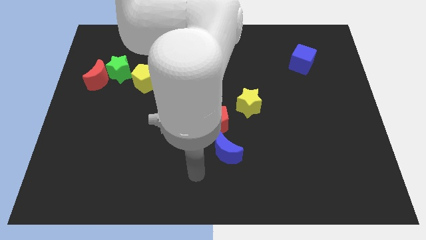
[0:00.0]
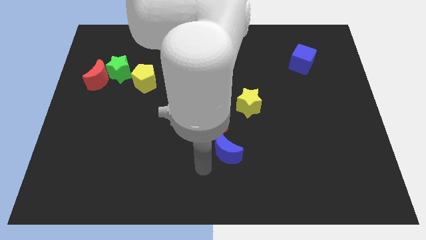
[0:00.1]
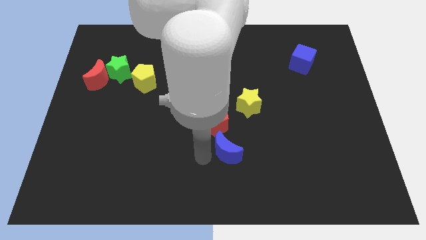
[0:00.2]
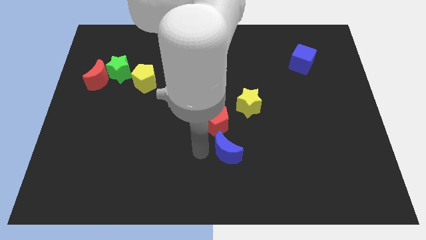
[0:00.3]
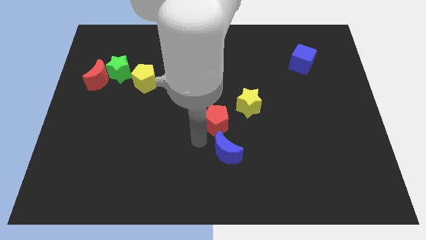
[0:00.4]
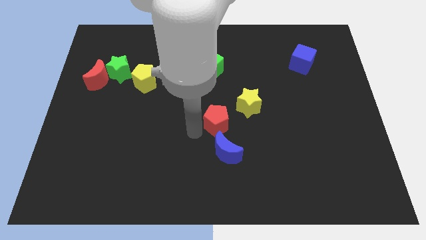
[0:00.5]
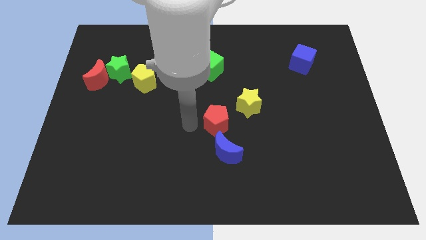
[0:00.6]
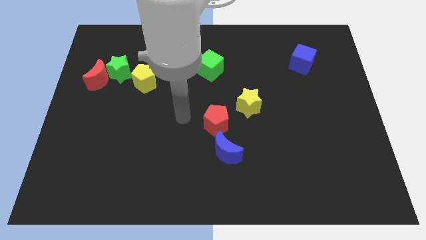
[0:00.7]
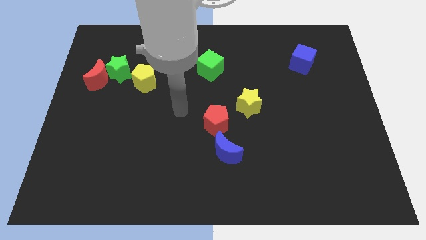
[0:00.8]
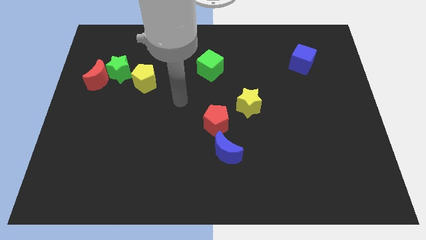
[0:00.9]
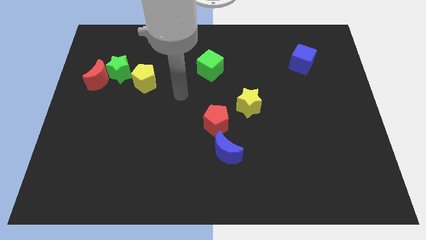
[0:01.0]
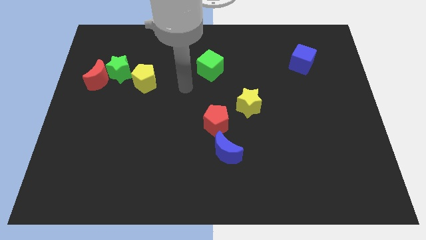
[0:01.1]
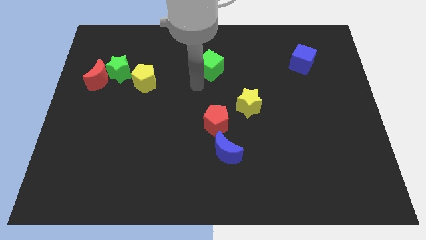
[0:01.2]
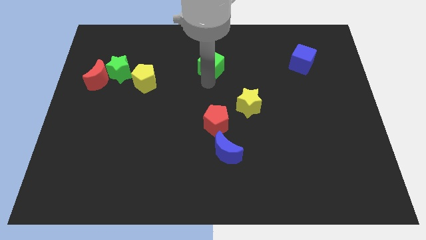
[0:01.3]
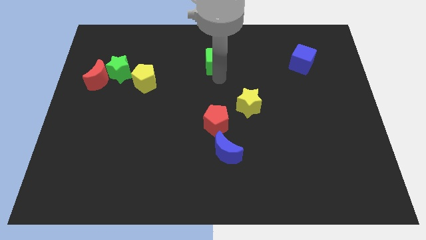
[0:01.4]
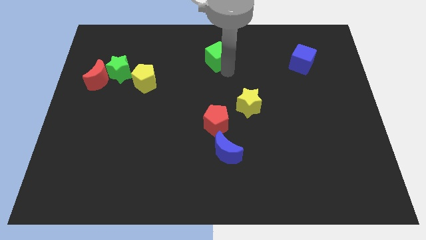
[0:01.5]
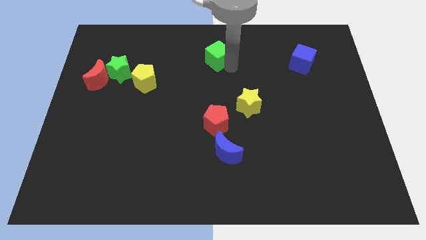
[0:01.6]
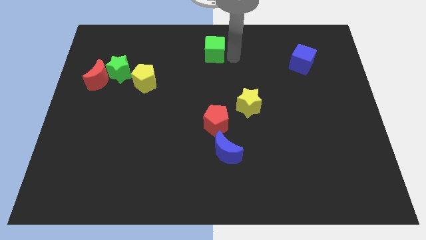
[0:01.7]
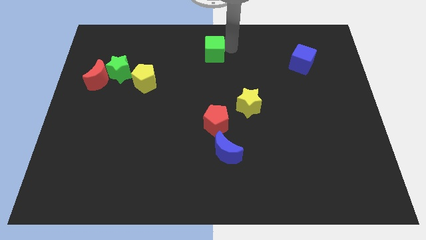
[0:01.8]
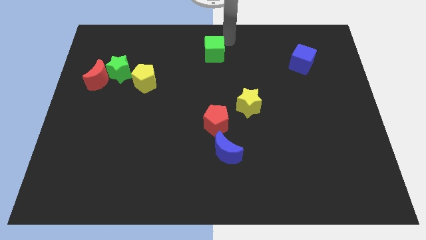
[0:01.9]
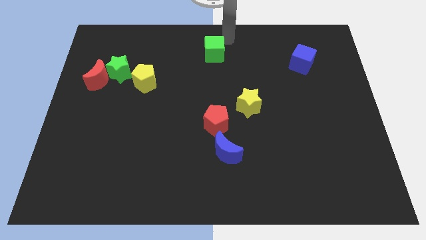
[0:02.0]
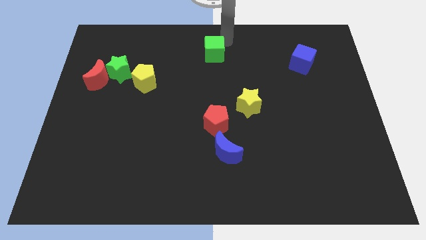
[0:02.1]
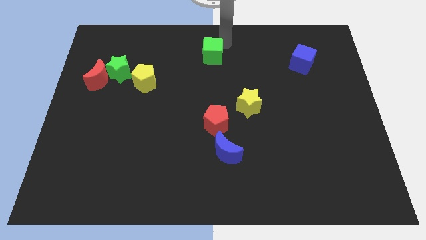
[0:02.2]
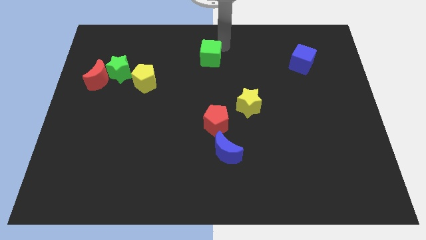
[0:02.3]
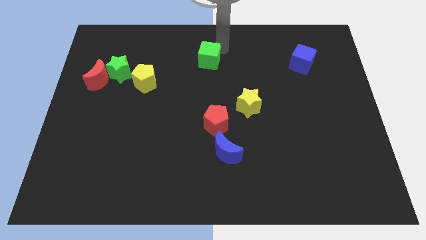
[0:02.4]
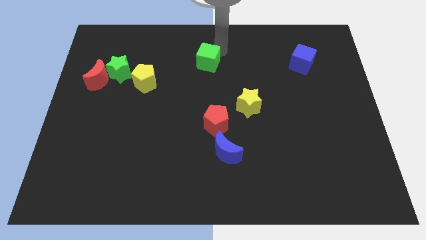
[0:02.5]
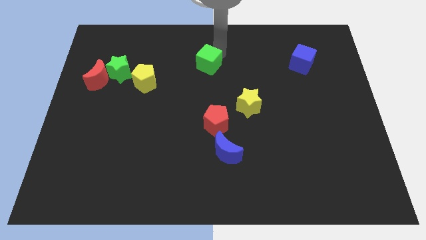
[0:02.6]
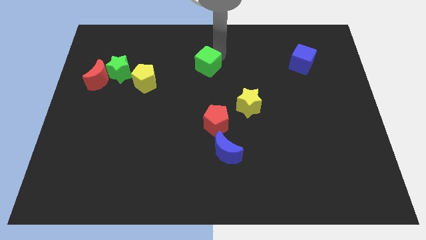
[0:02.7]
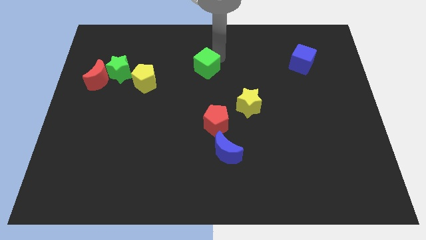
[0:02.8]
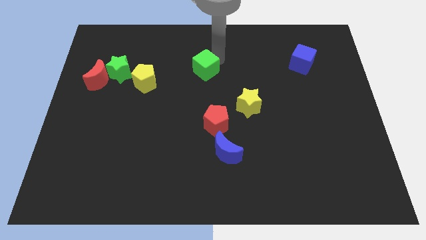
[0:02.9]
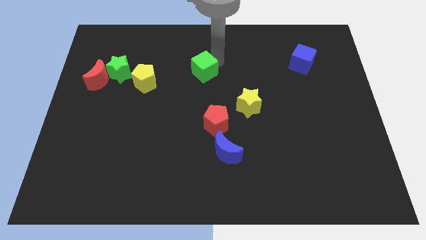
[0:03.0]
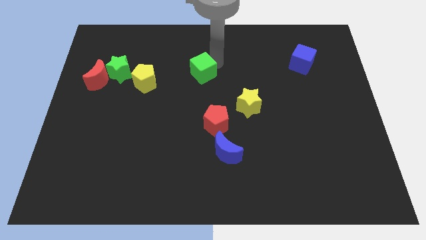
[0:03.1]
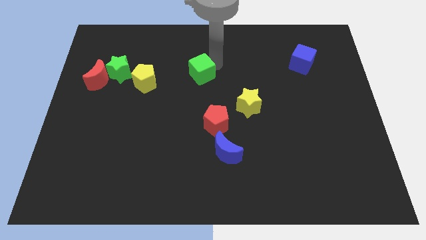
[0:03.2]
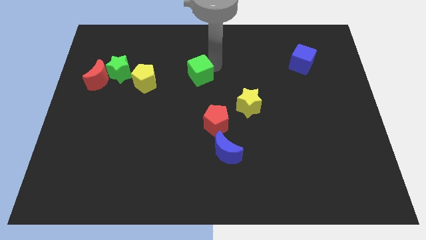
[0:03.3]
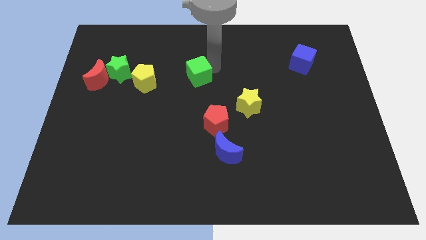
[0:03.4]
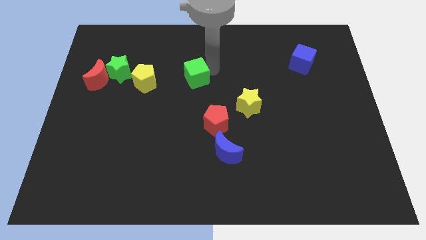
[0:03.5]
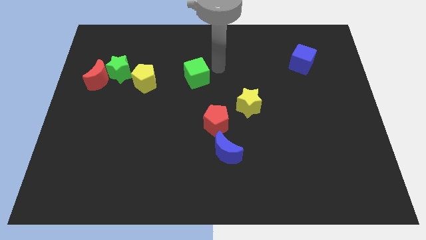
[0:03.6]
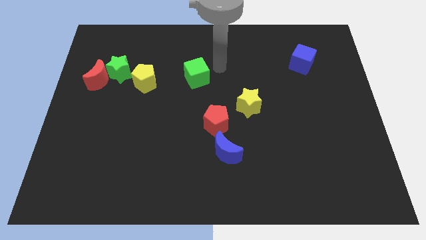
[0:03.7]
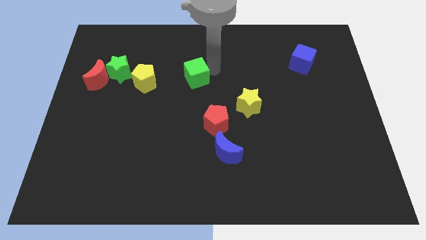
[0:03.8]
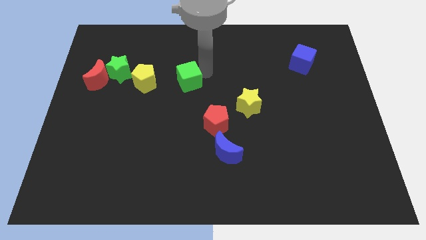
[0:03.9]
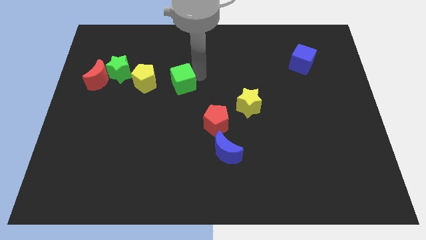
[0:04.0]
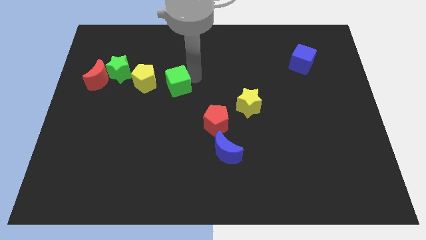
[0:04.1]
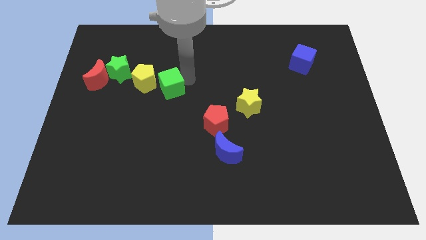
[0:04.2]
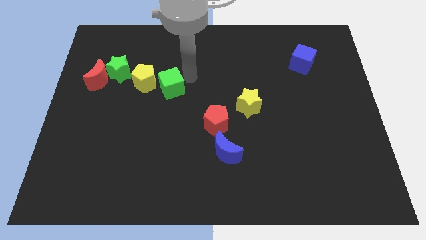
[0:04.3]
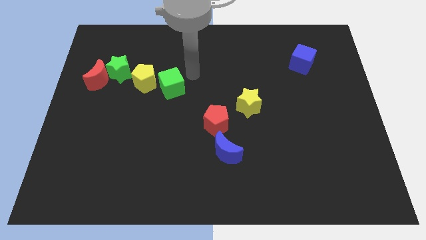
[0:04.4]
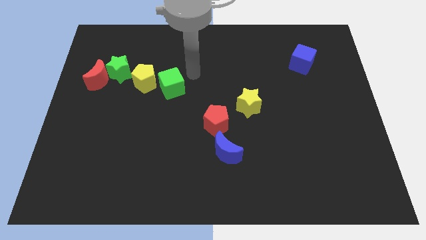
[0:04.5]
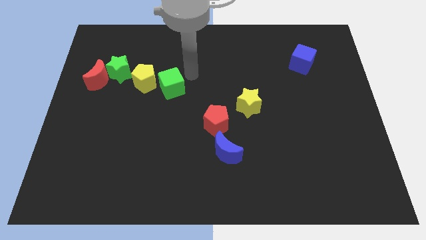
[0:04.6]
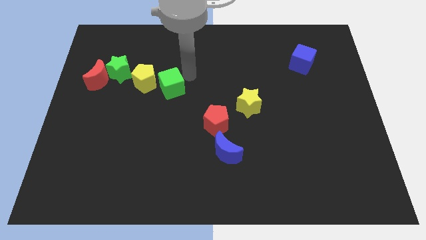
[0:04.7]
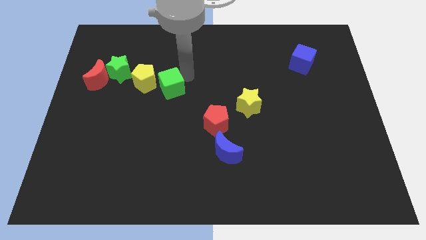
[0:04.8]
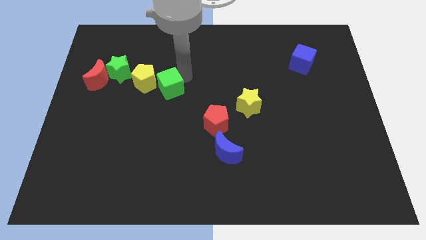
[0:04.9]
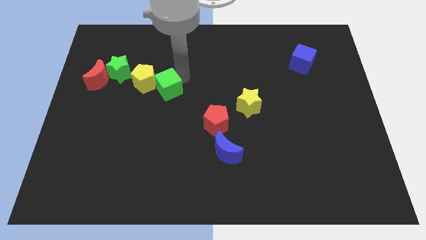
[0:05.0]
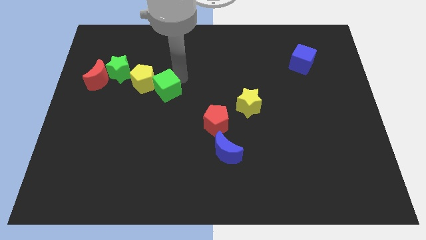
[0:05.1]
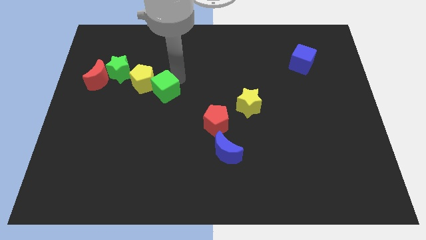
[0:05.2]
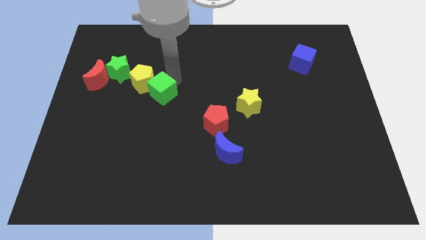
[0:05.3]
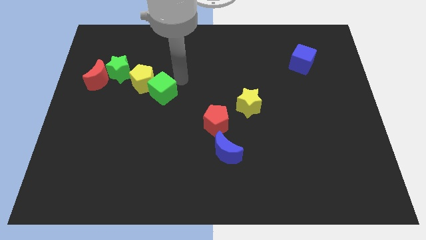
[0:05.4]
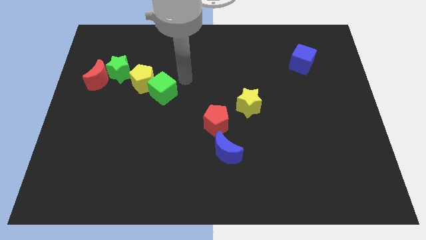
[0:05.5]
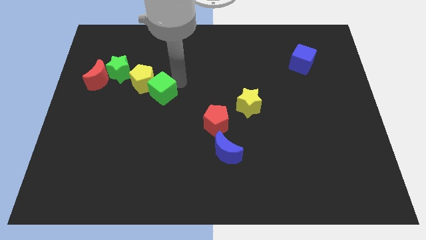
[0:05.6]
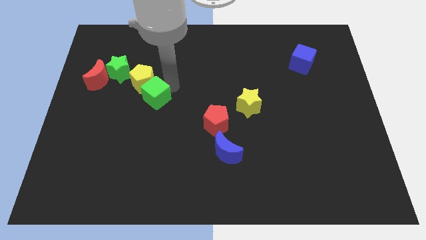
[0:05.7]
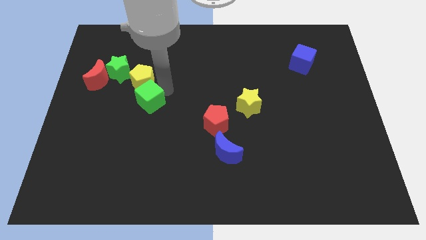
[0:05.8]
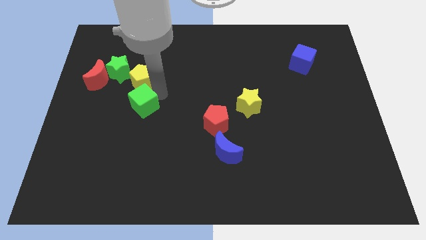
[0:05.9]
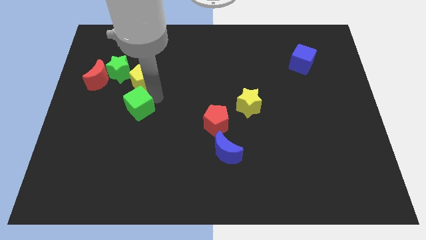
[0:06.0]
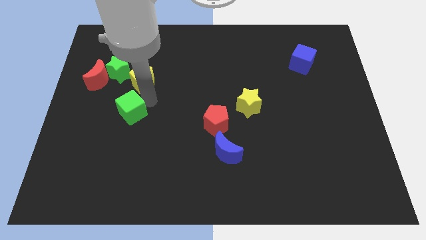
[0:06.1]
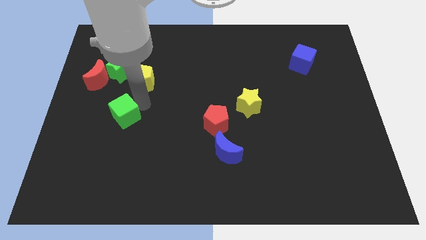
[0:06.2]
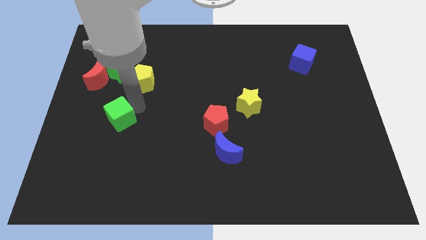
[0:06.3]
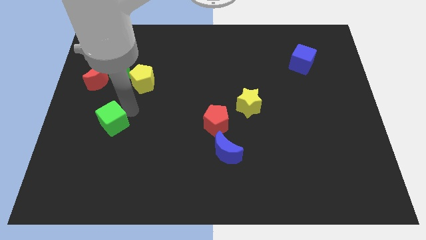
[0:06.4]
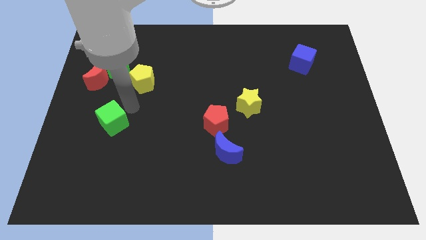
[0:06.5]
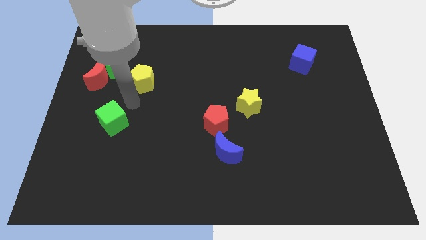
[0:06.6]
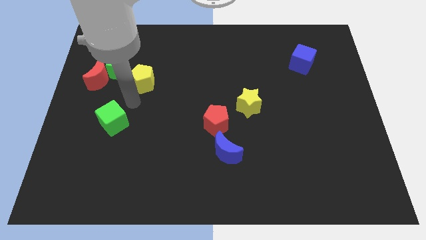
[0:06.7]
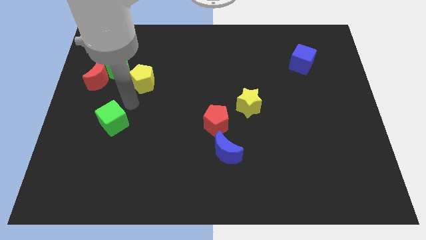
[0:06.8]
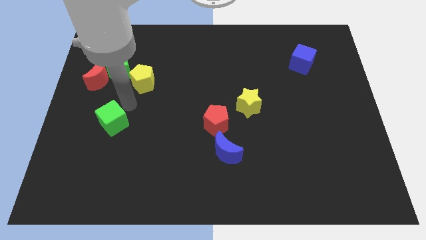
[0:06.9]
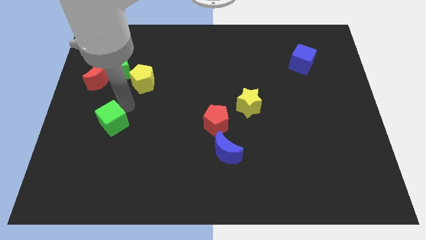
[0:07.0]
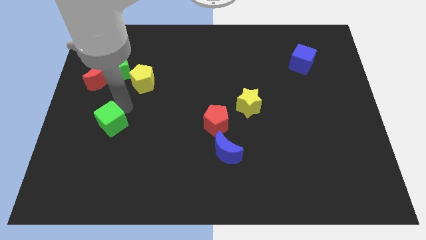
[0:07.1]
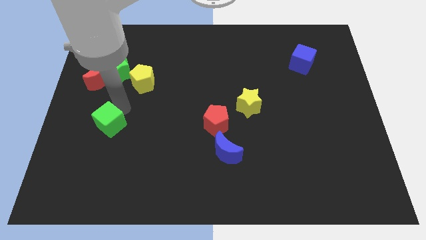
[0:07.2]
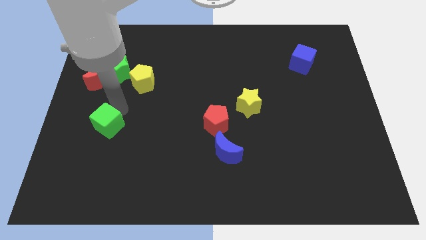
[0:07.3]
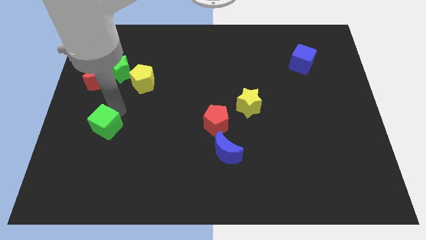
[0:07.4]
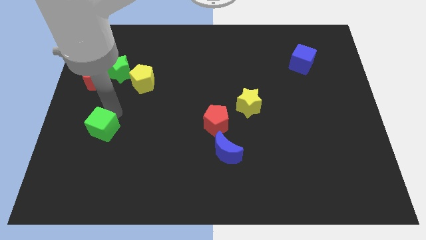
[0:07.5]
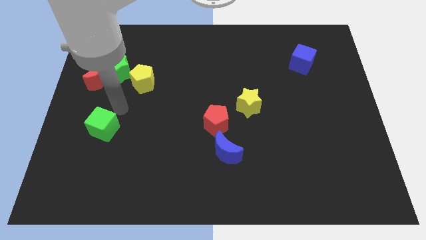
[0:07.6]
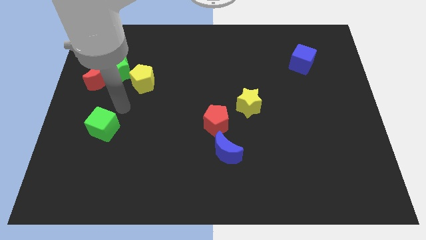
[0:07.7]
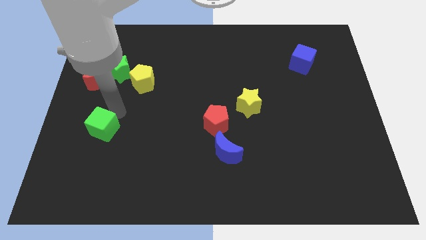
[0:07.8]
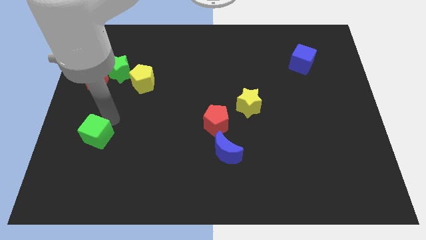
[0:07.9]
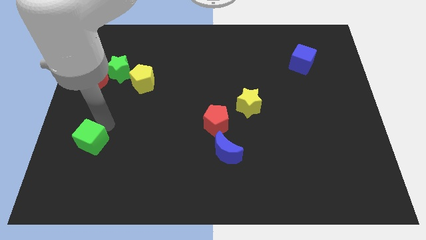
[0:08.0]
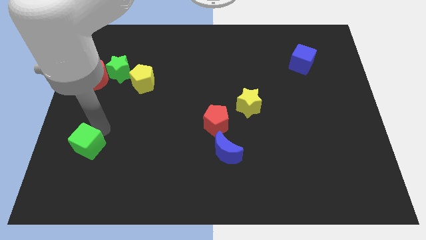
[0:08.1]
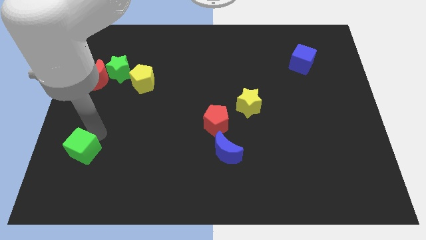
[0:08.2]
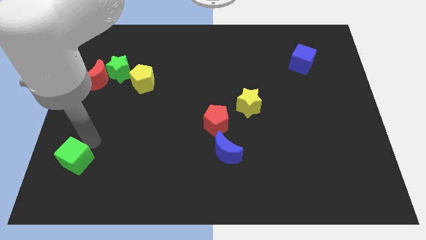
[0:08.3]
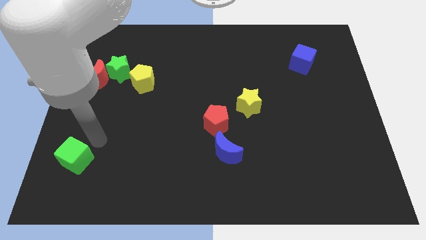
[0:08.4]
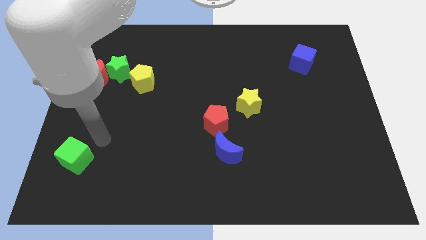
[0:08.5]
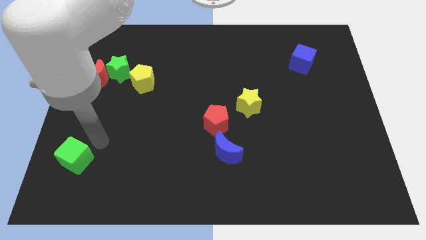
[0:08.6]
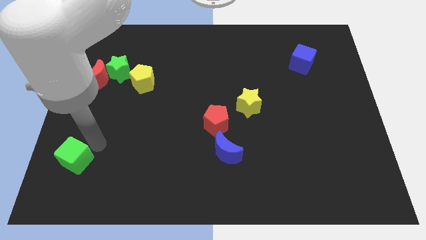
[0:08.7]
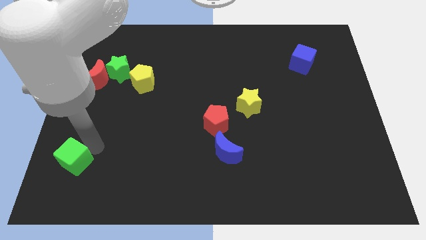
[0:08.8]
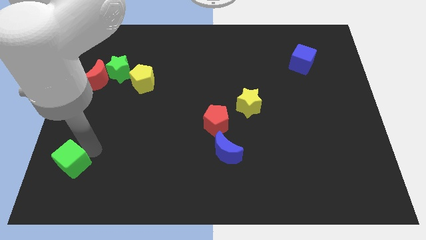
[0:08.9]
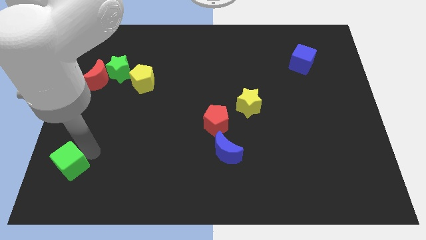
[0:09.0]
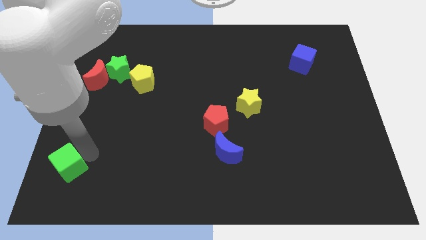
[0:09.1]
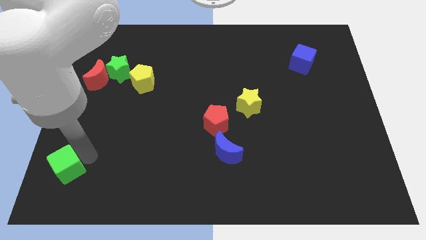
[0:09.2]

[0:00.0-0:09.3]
move the green cube to the bottom left
